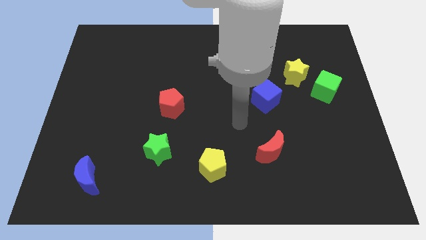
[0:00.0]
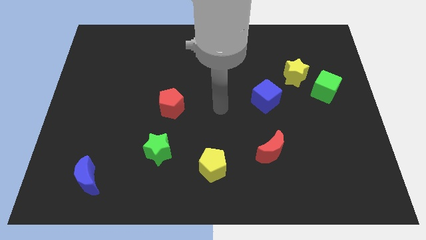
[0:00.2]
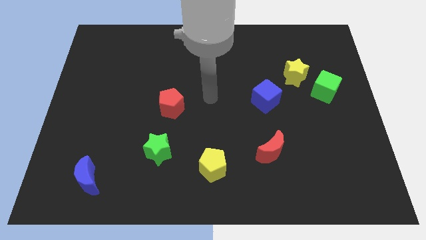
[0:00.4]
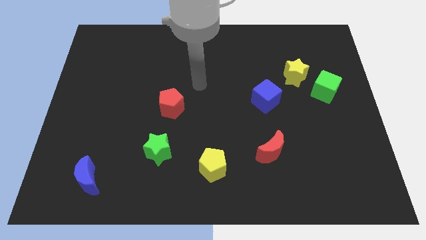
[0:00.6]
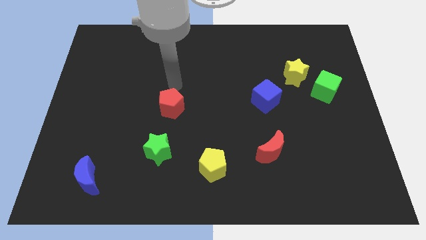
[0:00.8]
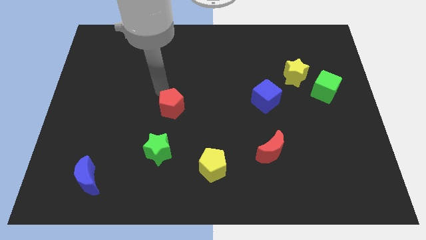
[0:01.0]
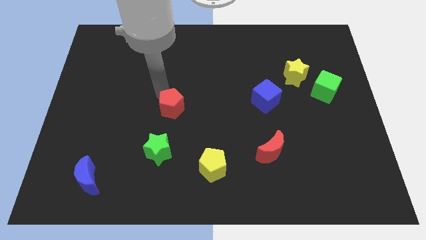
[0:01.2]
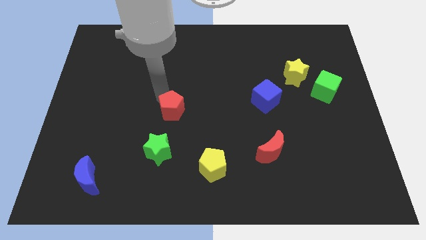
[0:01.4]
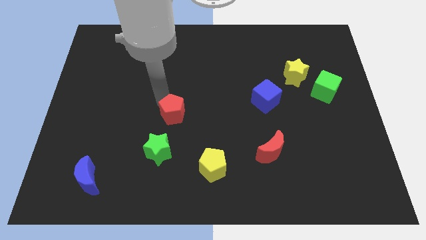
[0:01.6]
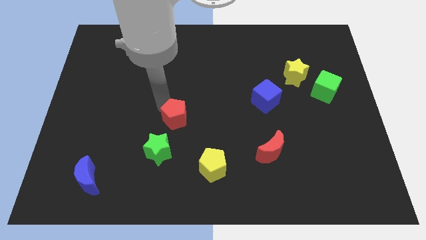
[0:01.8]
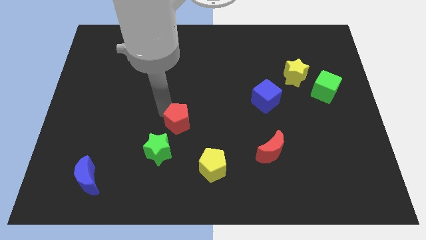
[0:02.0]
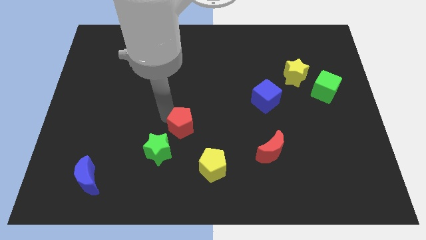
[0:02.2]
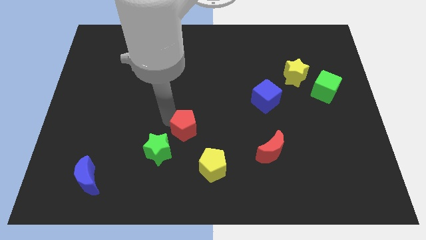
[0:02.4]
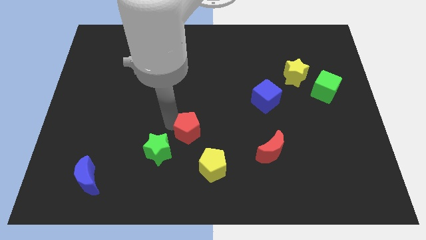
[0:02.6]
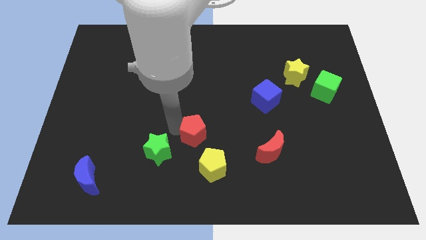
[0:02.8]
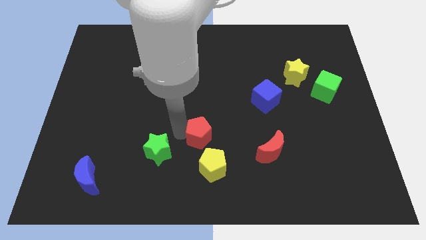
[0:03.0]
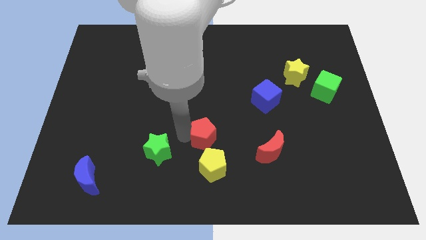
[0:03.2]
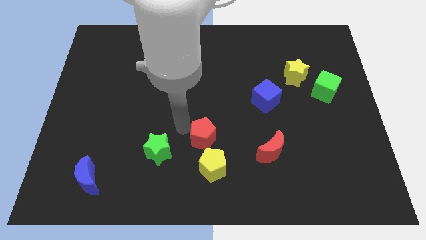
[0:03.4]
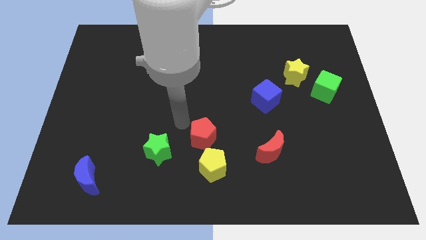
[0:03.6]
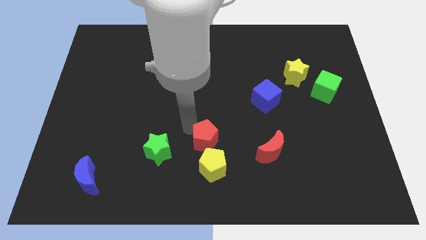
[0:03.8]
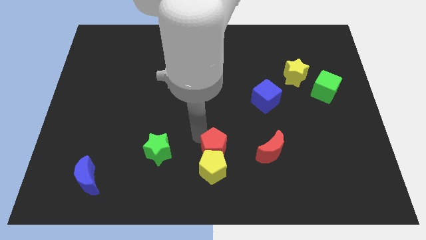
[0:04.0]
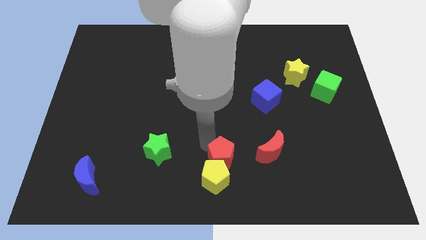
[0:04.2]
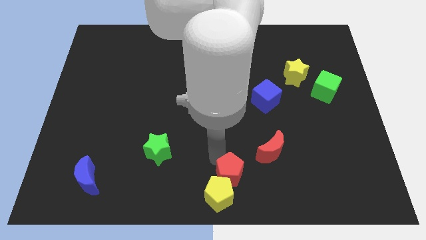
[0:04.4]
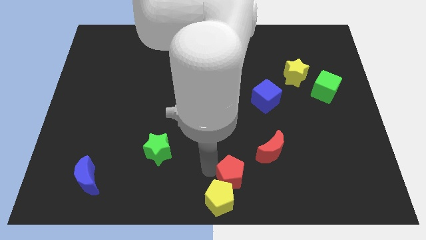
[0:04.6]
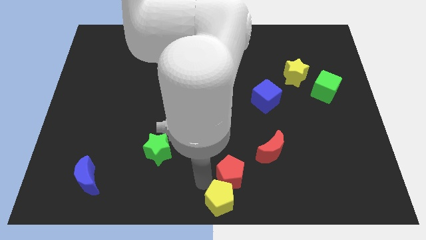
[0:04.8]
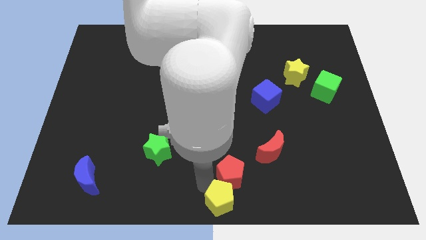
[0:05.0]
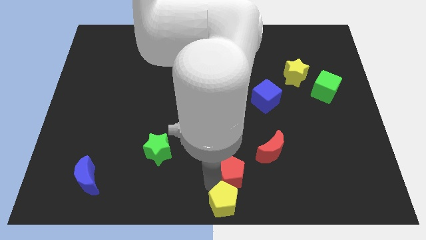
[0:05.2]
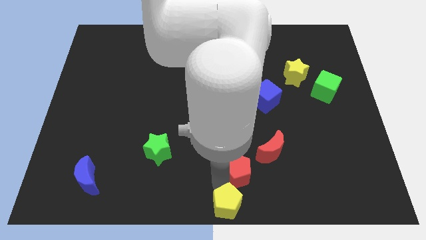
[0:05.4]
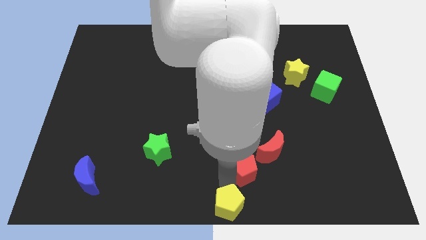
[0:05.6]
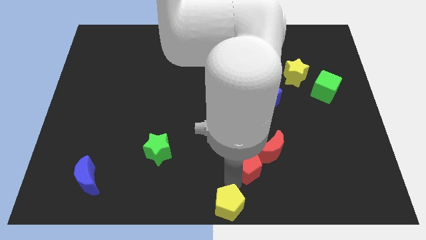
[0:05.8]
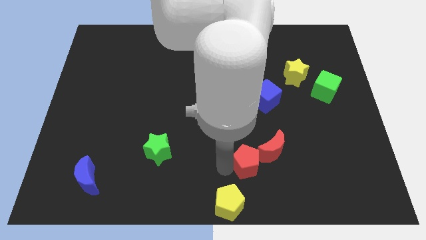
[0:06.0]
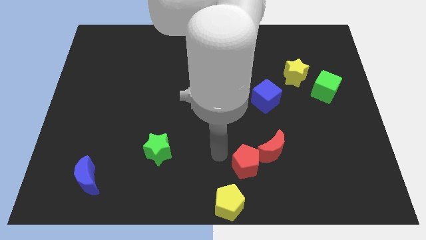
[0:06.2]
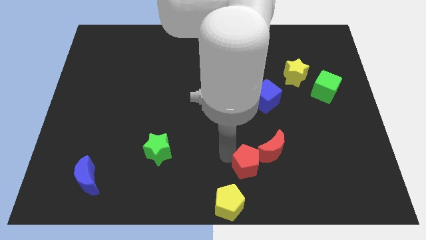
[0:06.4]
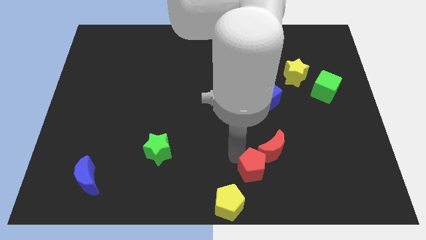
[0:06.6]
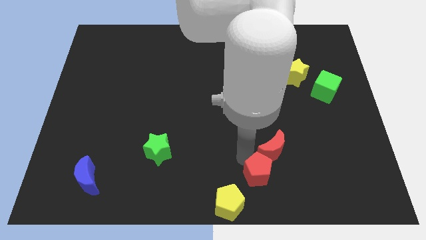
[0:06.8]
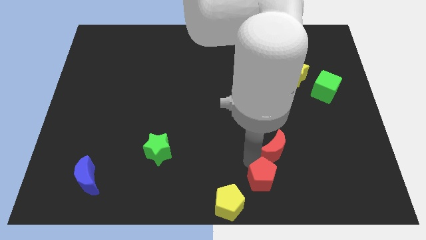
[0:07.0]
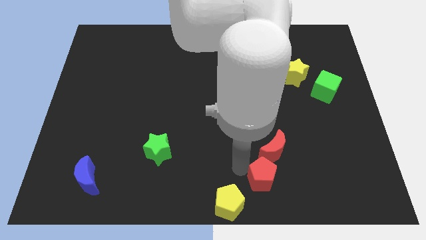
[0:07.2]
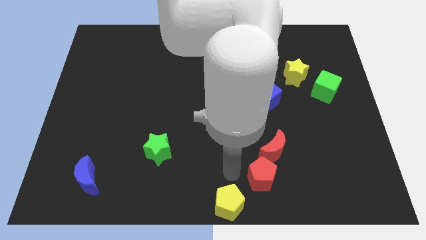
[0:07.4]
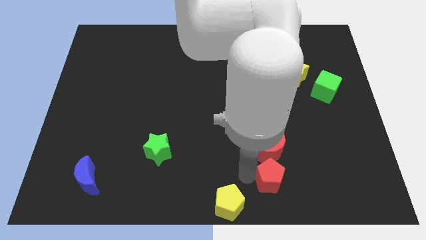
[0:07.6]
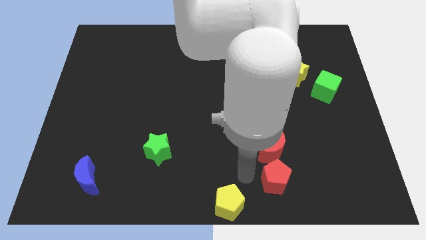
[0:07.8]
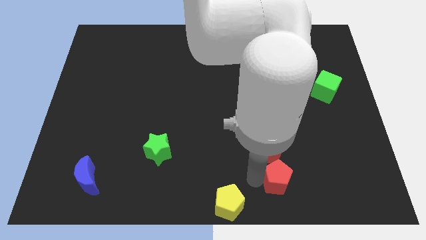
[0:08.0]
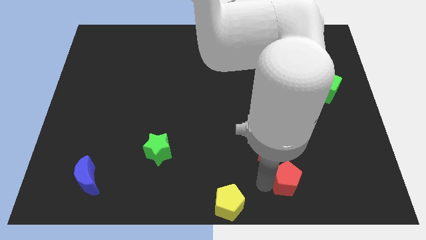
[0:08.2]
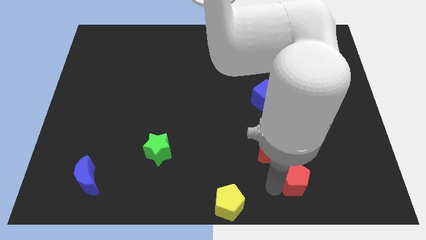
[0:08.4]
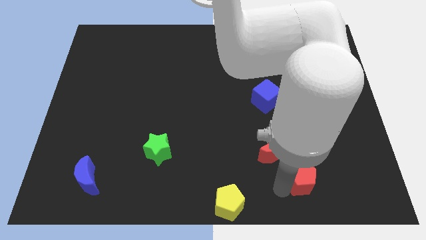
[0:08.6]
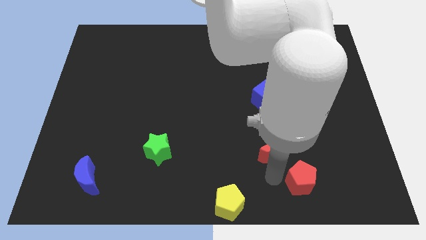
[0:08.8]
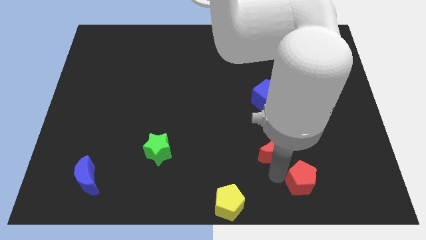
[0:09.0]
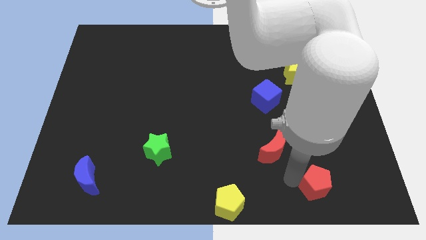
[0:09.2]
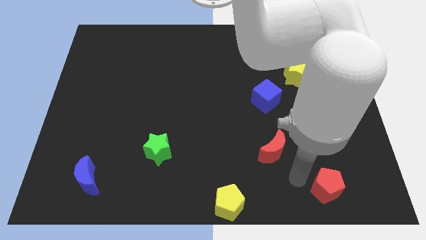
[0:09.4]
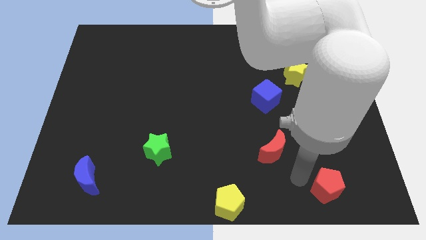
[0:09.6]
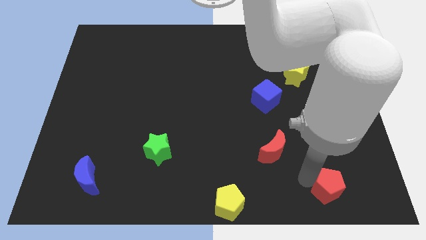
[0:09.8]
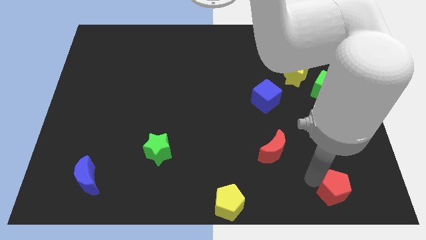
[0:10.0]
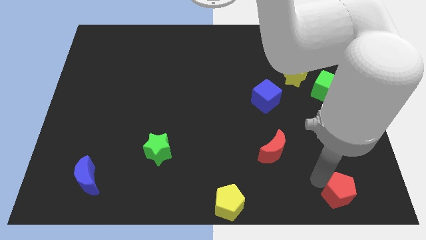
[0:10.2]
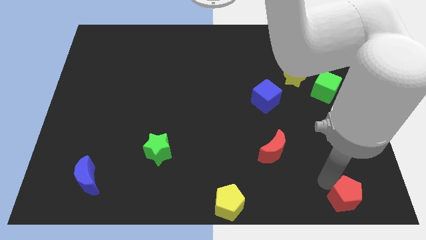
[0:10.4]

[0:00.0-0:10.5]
move the red pentagon to the lower right corner

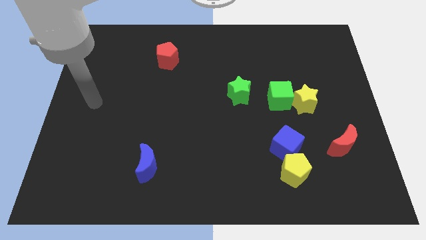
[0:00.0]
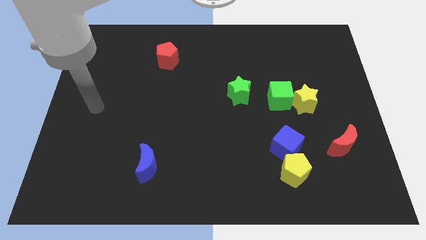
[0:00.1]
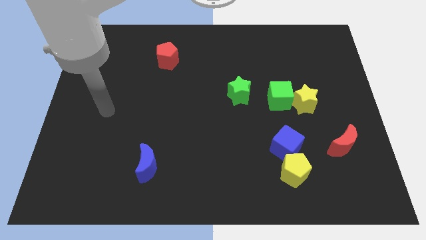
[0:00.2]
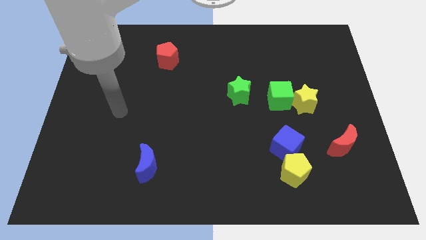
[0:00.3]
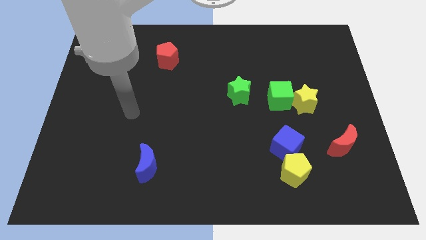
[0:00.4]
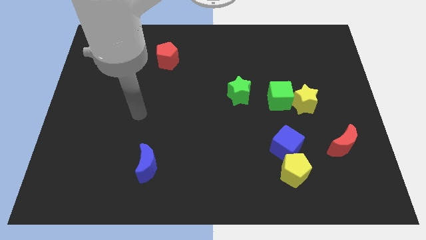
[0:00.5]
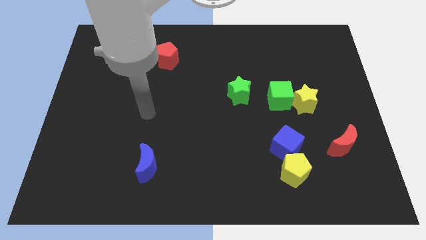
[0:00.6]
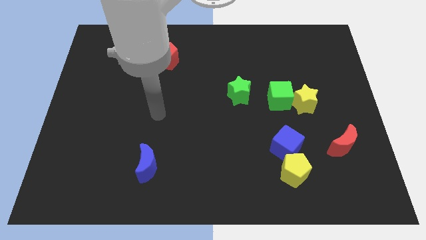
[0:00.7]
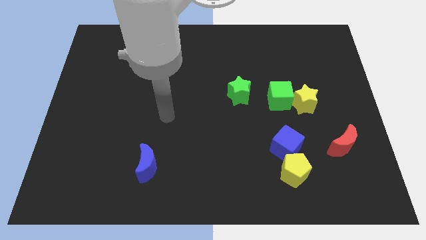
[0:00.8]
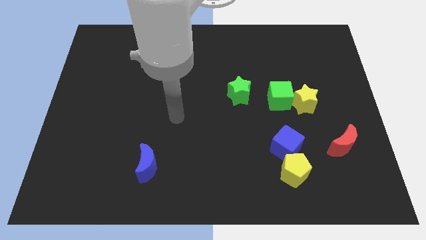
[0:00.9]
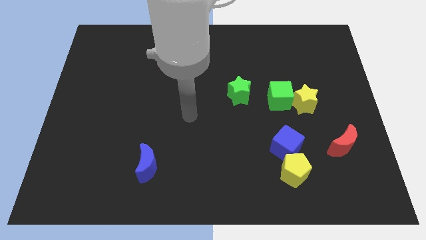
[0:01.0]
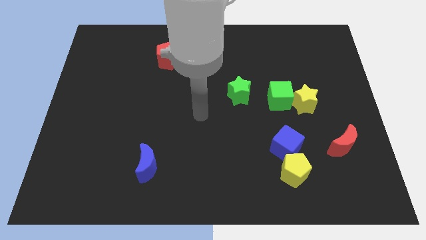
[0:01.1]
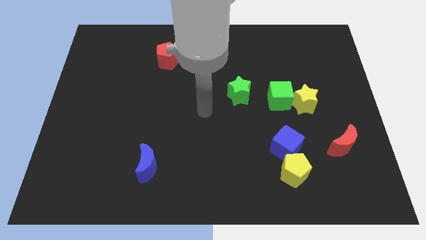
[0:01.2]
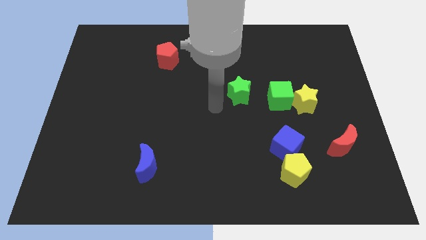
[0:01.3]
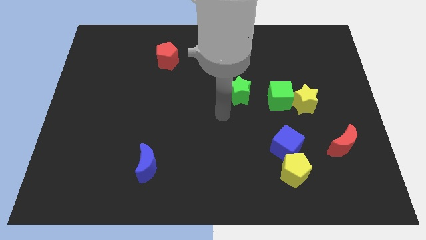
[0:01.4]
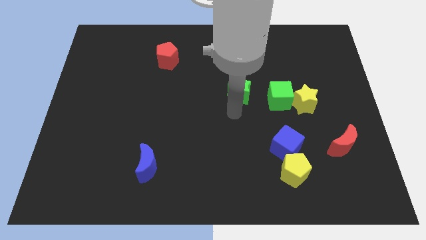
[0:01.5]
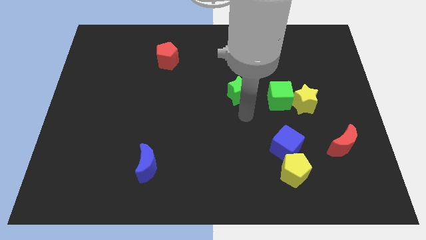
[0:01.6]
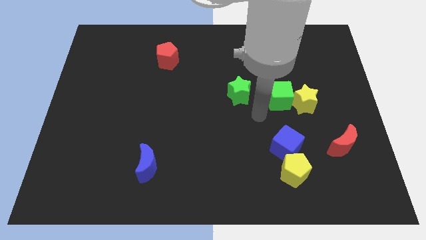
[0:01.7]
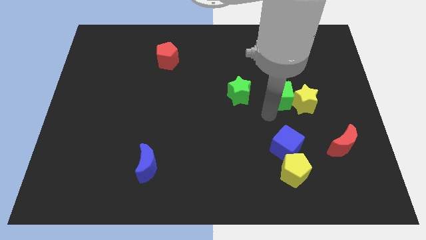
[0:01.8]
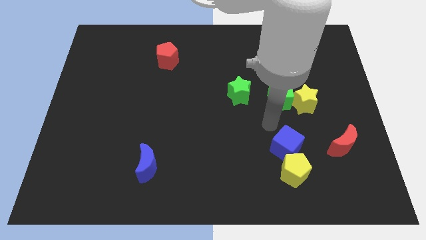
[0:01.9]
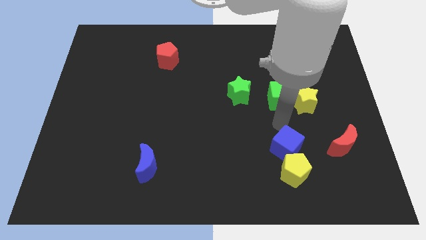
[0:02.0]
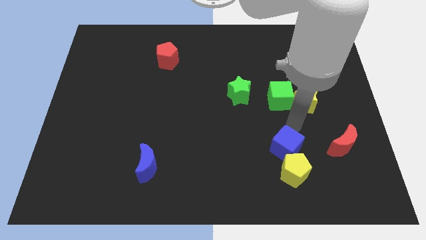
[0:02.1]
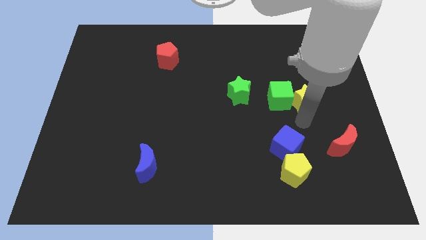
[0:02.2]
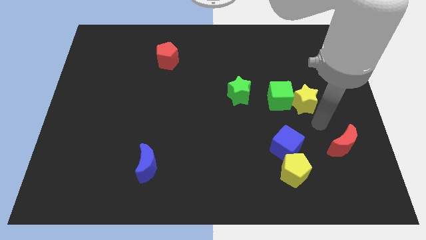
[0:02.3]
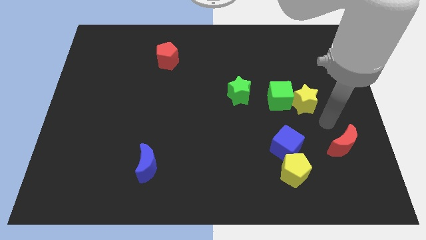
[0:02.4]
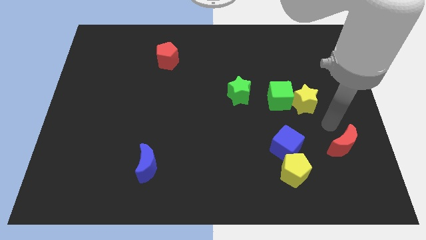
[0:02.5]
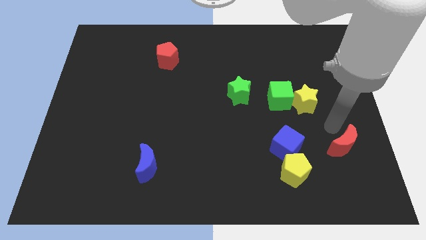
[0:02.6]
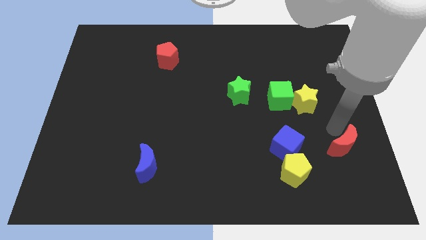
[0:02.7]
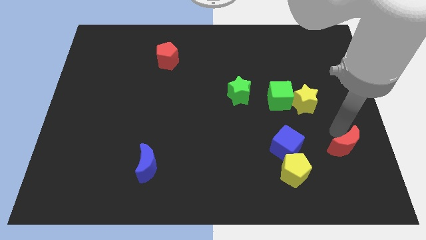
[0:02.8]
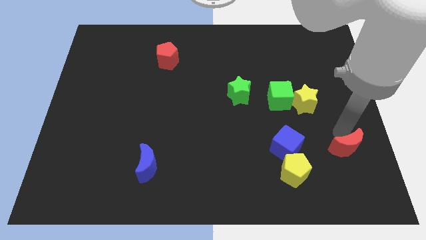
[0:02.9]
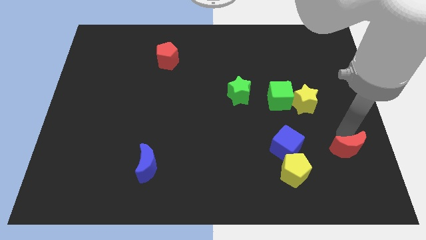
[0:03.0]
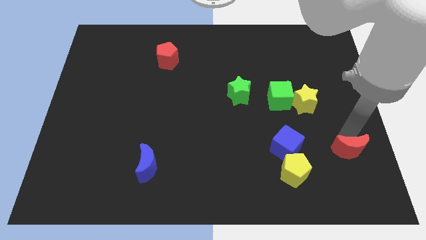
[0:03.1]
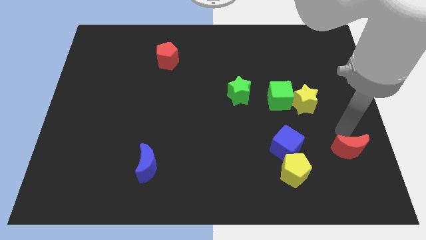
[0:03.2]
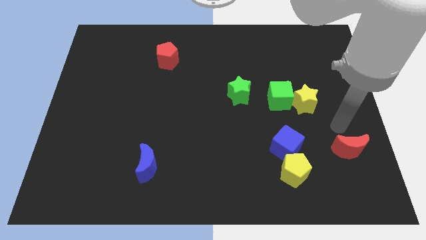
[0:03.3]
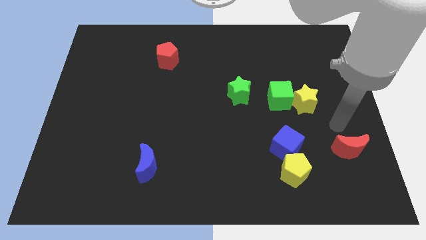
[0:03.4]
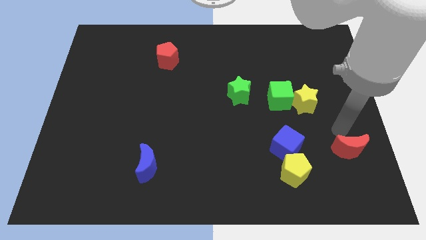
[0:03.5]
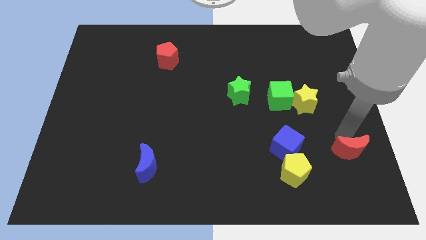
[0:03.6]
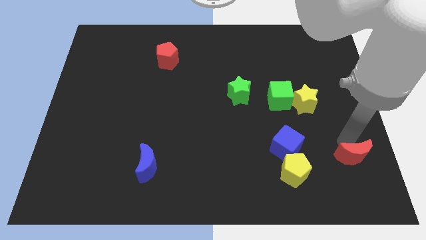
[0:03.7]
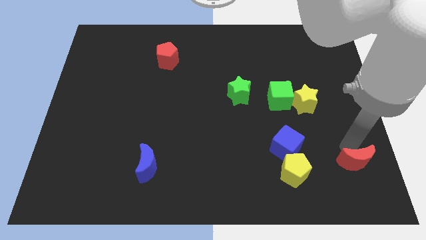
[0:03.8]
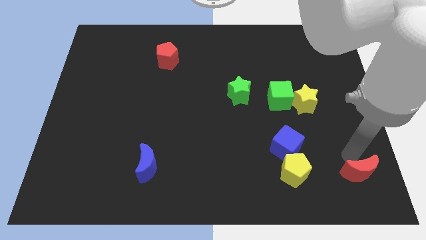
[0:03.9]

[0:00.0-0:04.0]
move the red moon to the bottom right
